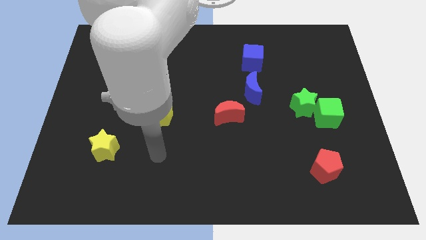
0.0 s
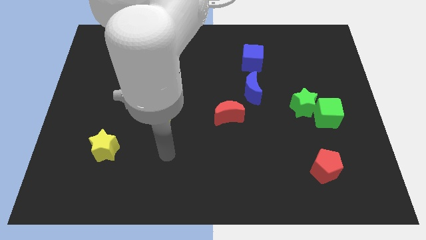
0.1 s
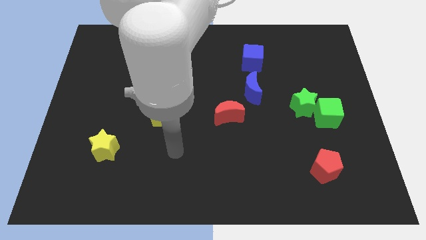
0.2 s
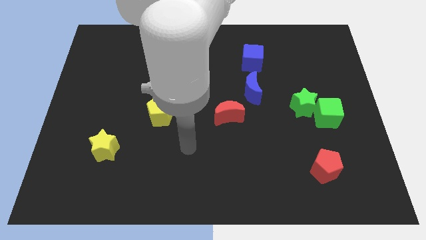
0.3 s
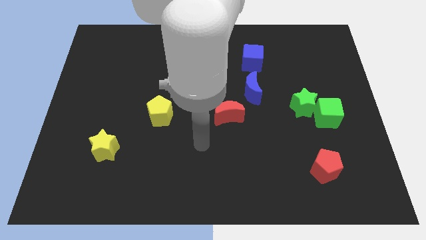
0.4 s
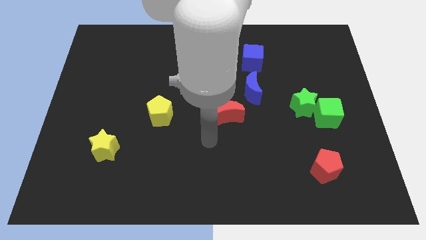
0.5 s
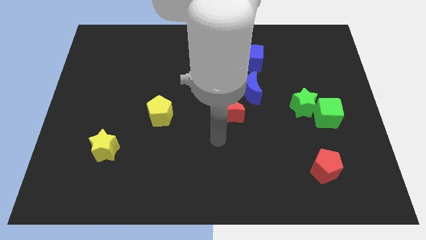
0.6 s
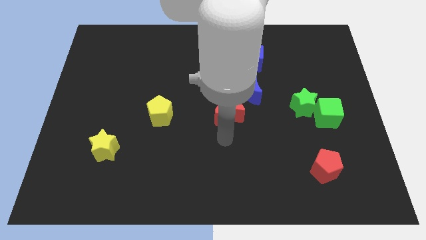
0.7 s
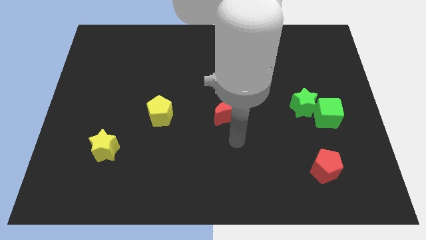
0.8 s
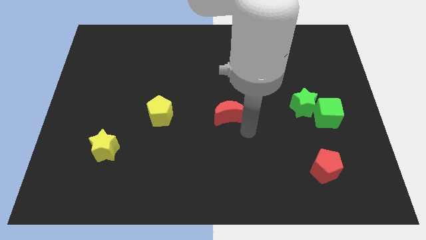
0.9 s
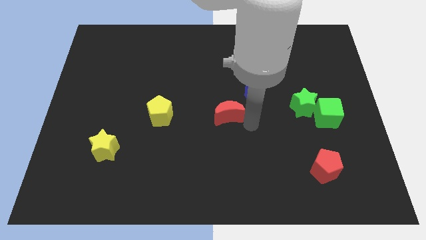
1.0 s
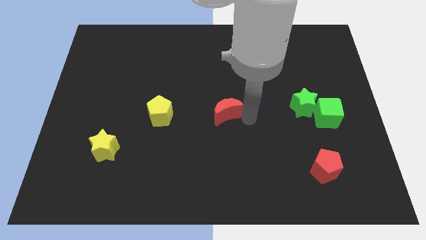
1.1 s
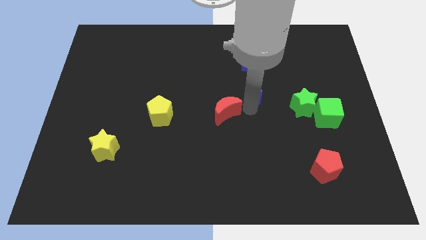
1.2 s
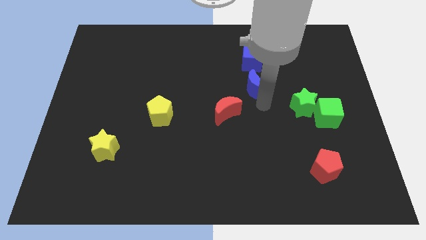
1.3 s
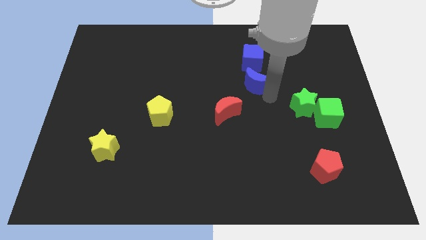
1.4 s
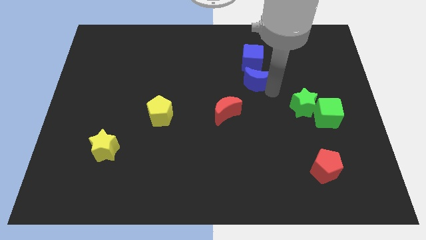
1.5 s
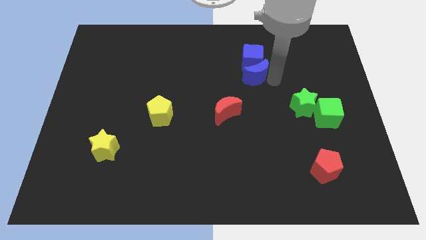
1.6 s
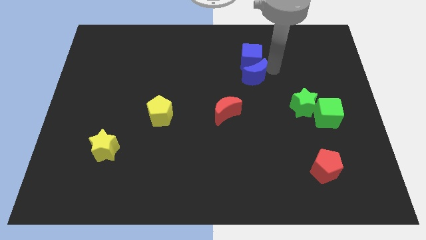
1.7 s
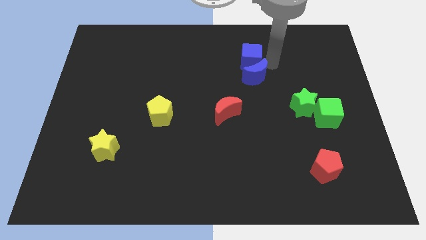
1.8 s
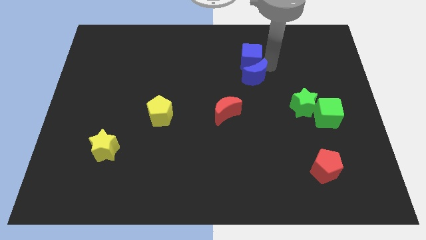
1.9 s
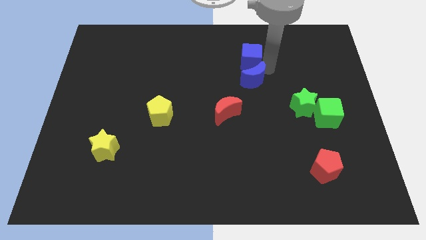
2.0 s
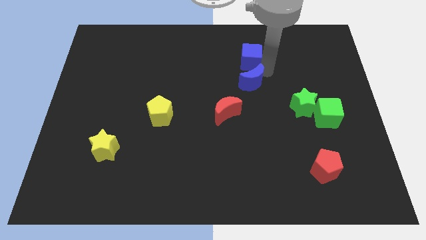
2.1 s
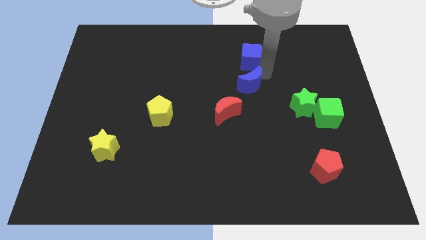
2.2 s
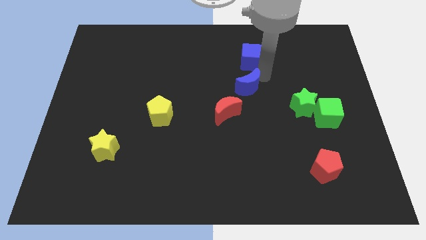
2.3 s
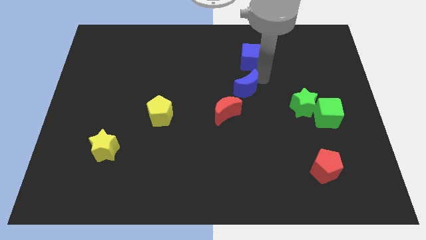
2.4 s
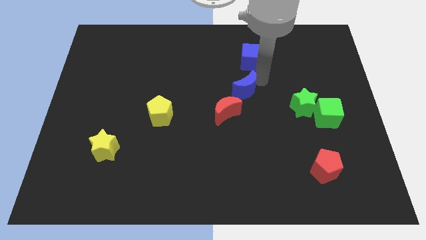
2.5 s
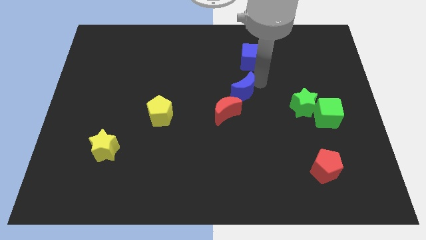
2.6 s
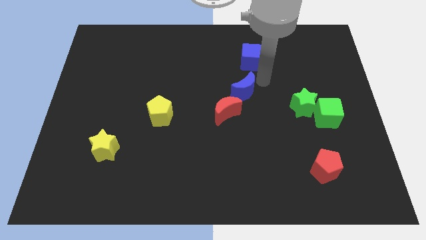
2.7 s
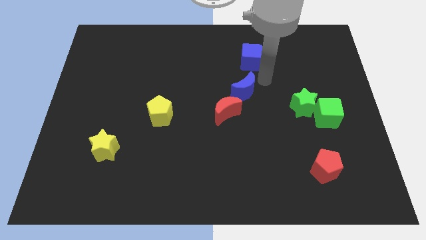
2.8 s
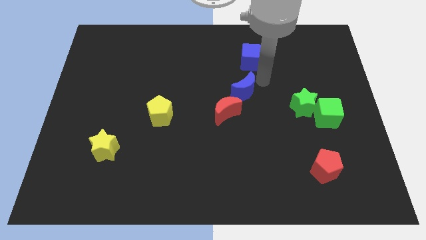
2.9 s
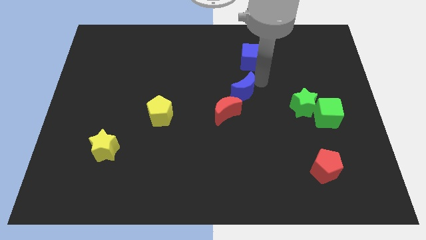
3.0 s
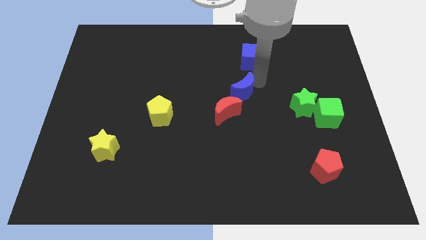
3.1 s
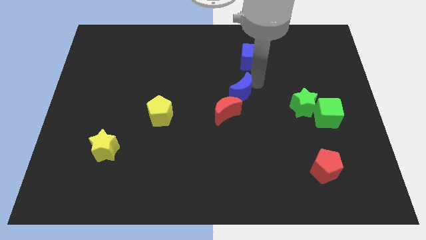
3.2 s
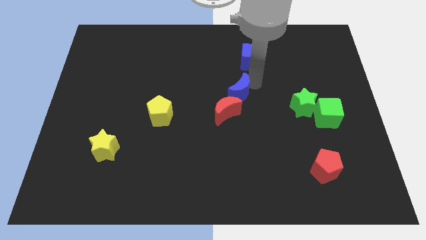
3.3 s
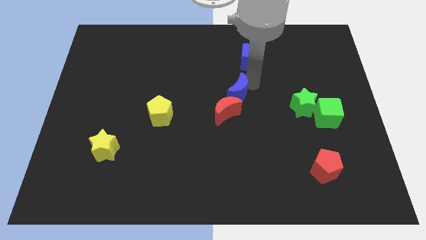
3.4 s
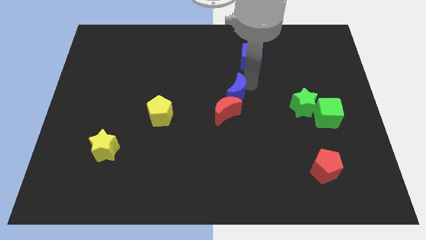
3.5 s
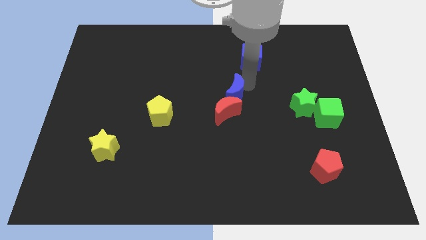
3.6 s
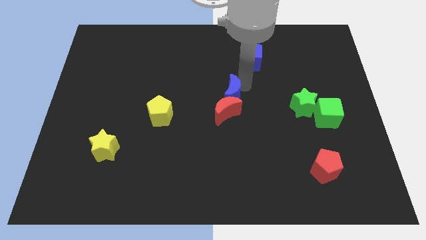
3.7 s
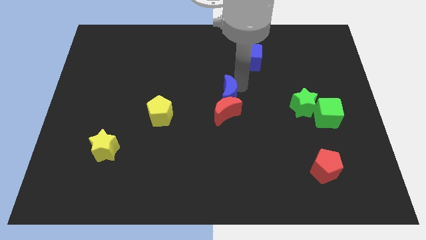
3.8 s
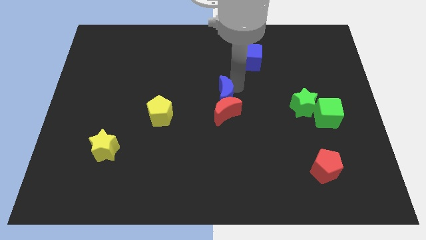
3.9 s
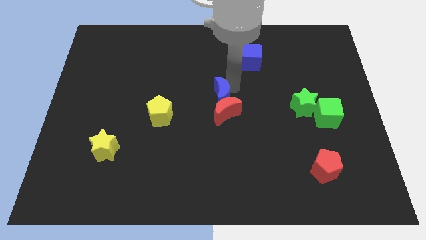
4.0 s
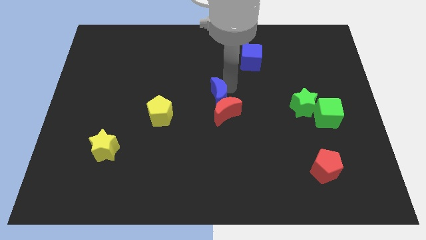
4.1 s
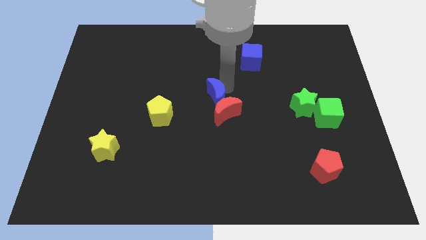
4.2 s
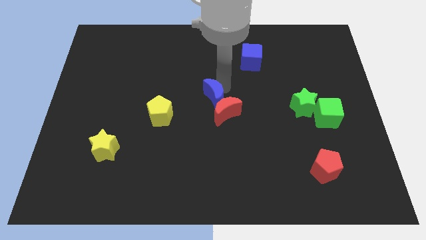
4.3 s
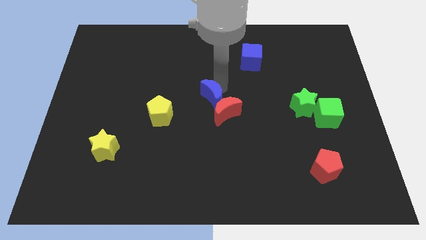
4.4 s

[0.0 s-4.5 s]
slightly push the blue moon down and to the left diagonally

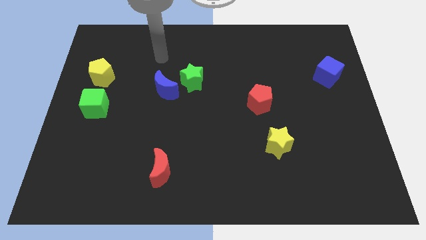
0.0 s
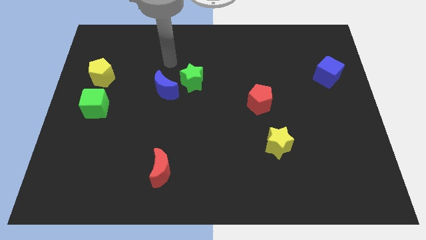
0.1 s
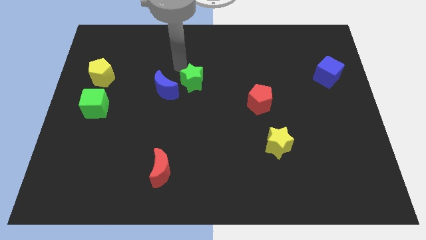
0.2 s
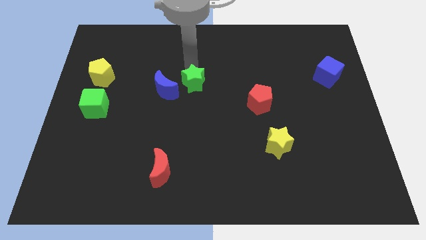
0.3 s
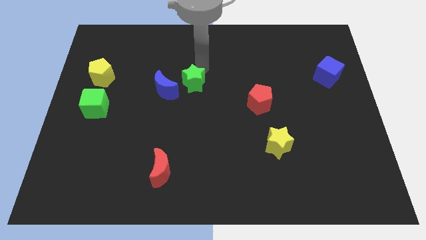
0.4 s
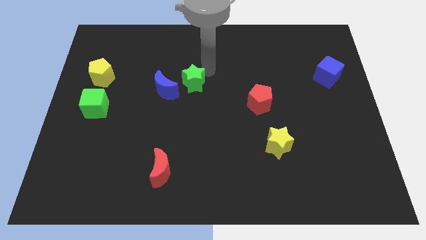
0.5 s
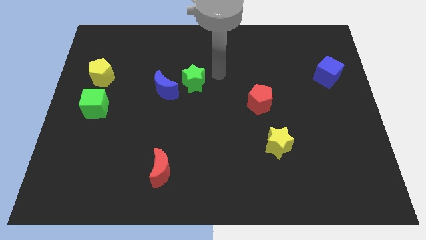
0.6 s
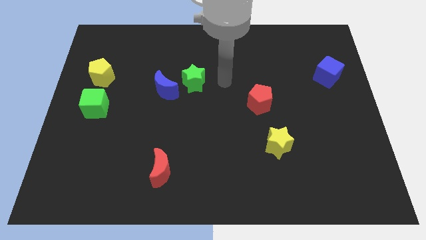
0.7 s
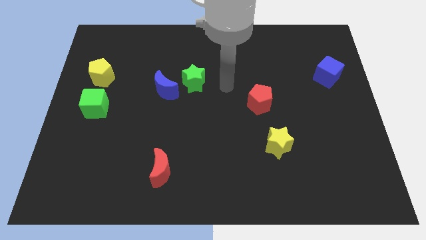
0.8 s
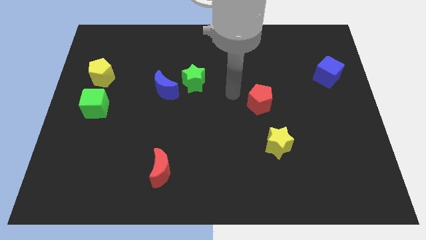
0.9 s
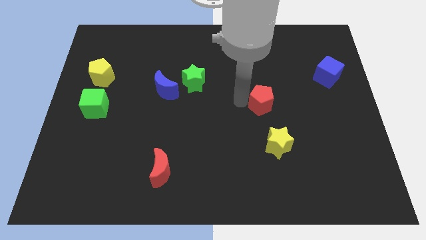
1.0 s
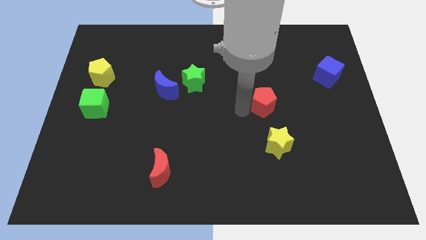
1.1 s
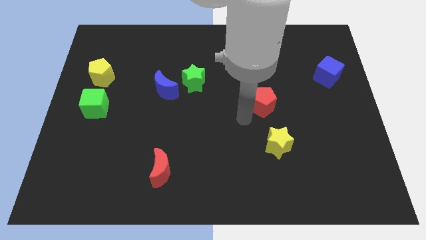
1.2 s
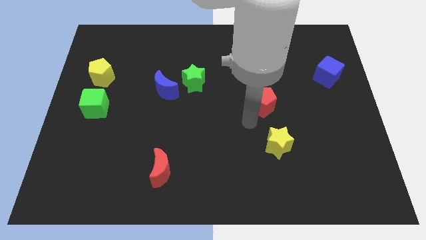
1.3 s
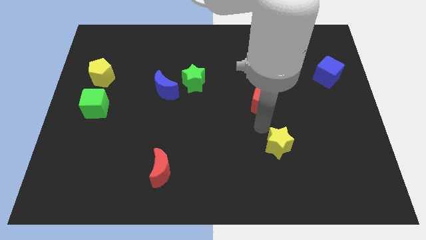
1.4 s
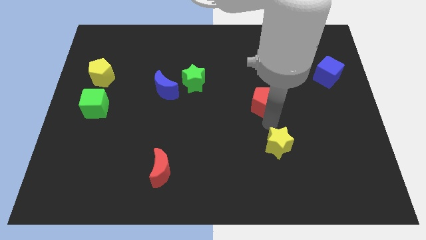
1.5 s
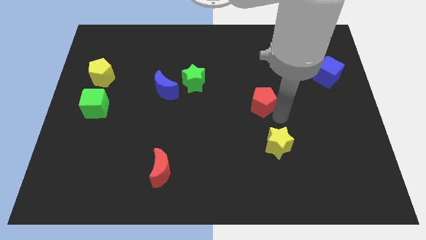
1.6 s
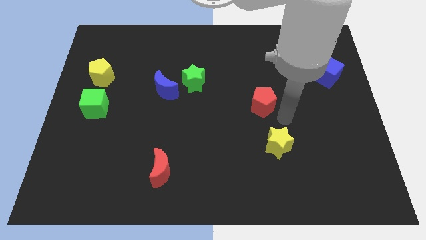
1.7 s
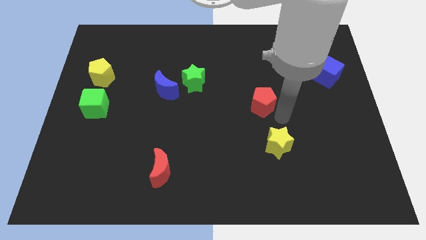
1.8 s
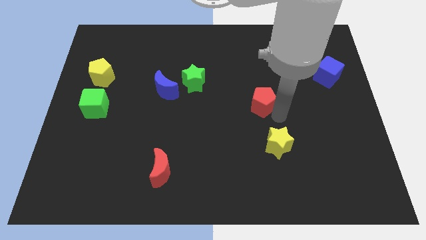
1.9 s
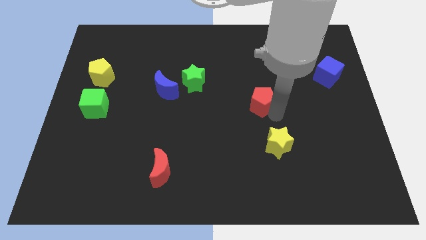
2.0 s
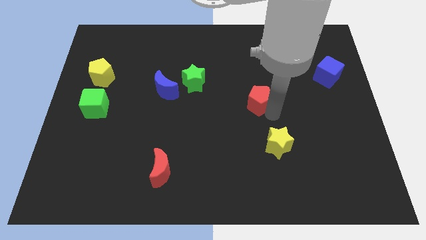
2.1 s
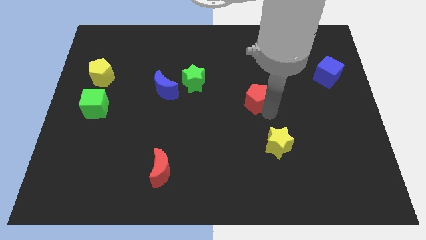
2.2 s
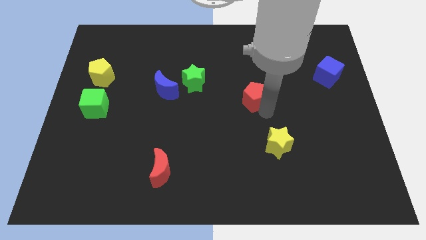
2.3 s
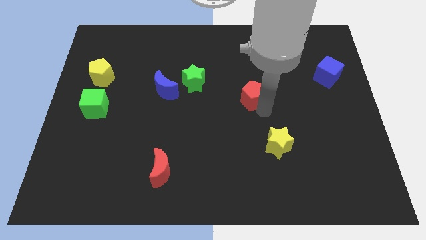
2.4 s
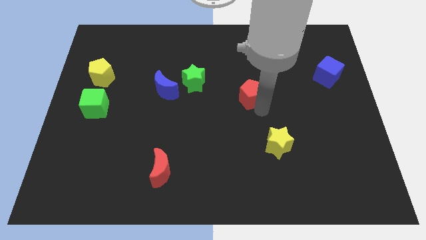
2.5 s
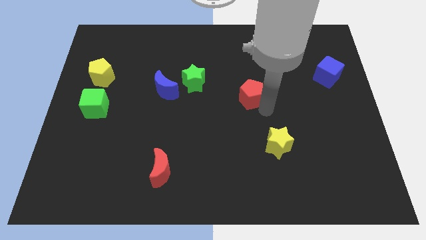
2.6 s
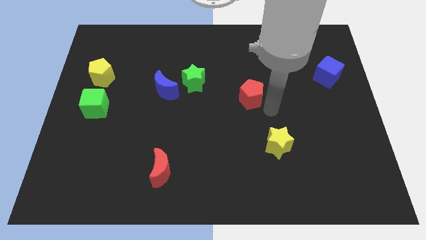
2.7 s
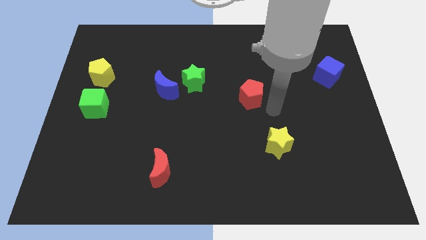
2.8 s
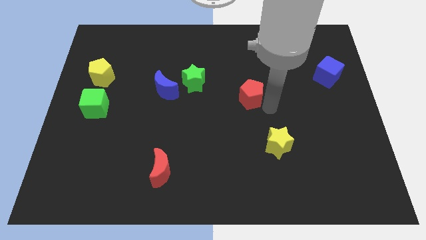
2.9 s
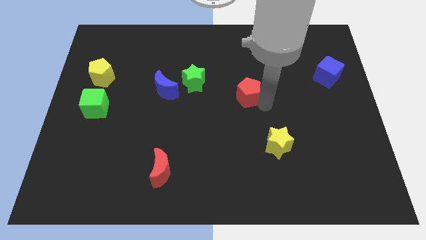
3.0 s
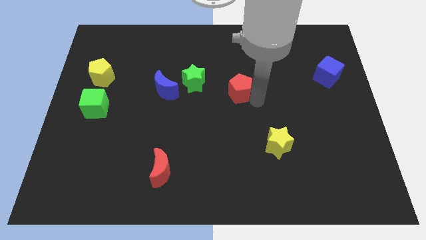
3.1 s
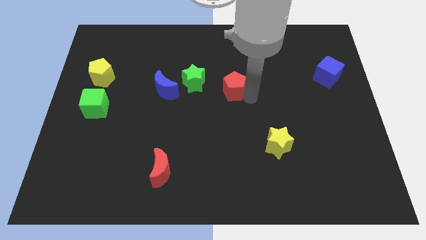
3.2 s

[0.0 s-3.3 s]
slightly move the red pentagon upwards and to the left diagonally

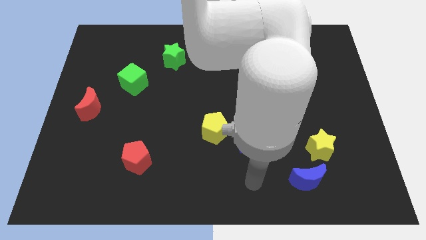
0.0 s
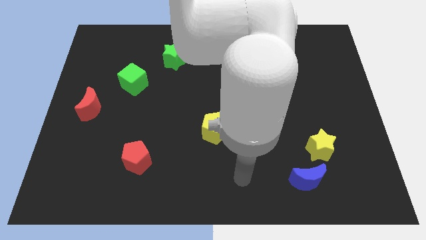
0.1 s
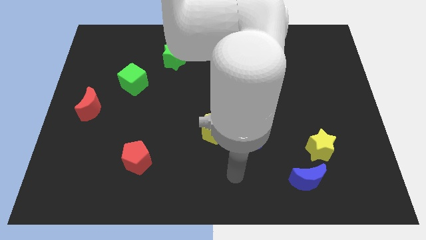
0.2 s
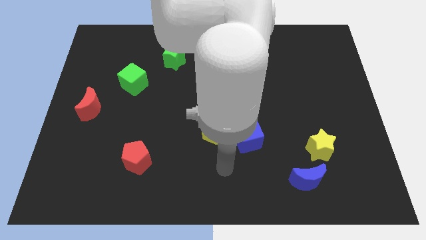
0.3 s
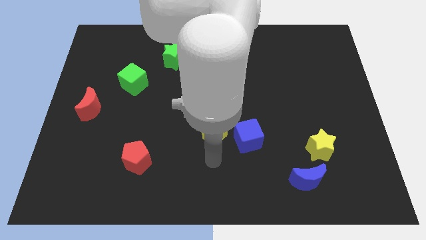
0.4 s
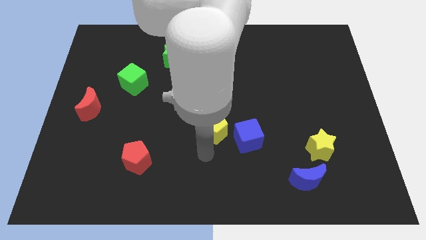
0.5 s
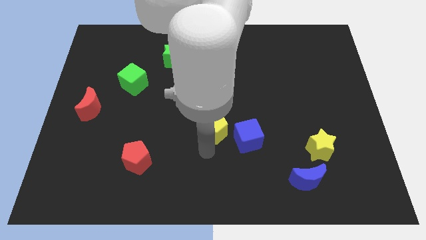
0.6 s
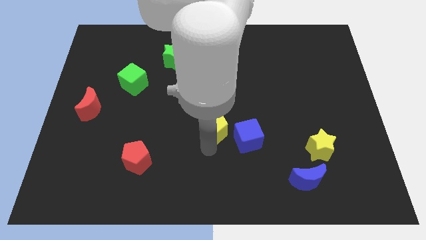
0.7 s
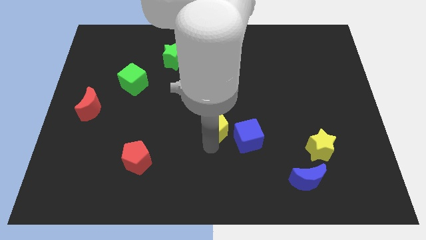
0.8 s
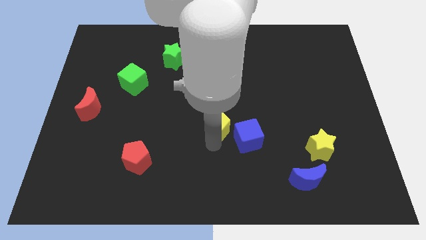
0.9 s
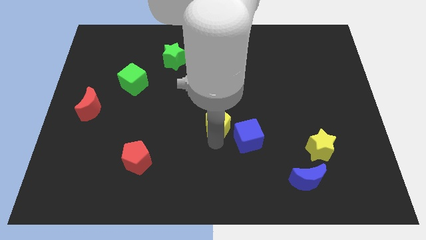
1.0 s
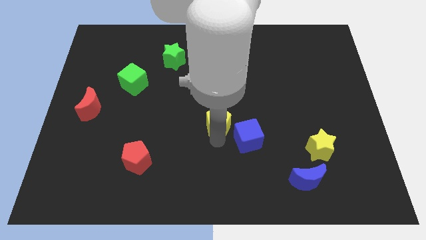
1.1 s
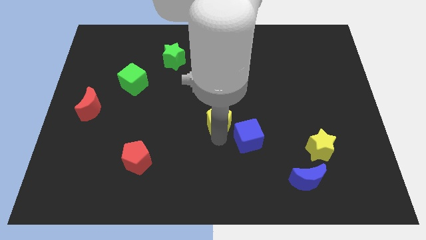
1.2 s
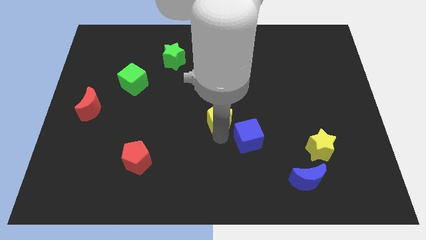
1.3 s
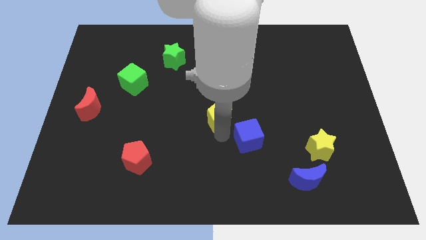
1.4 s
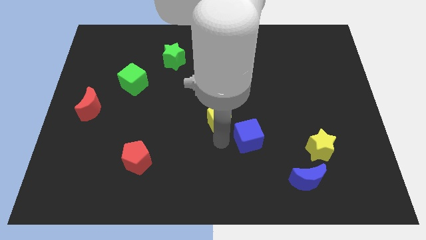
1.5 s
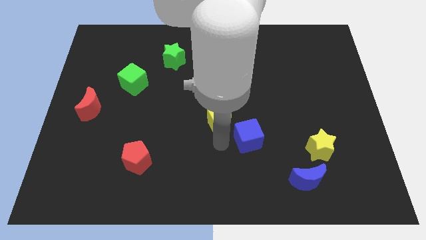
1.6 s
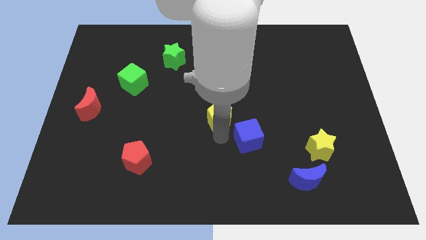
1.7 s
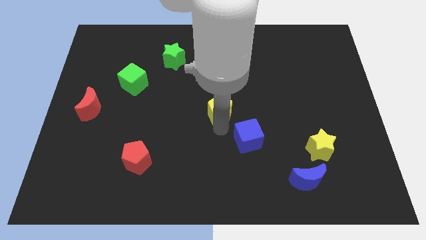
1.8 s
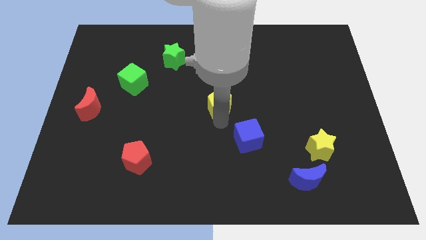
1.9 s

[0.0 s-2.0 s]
slide the yellow pentagon a little upwards
